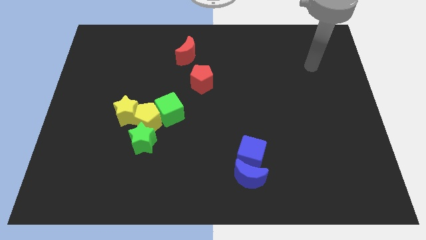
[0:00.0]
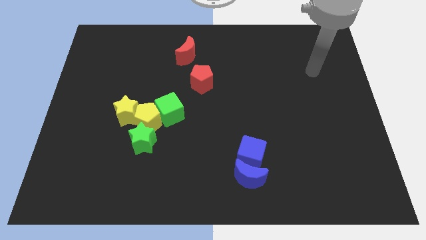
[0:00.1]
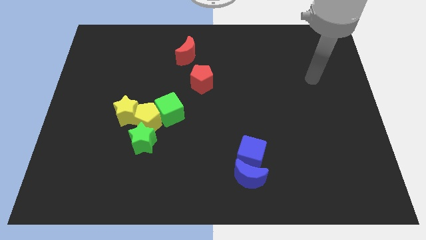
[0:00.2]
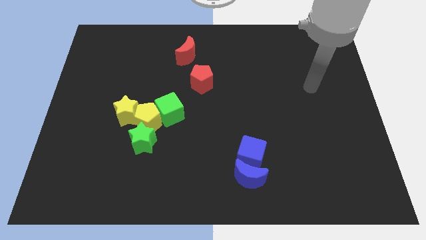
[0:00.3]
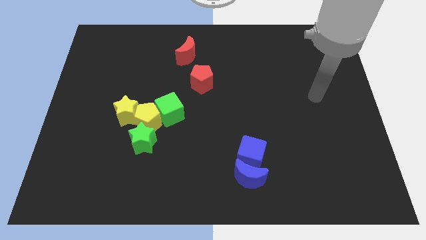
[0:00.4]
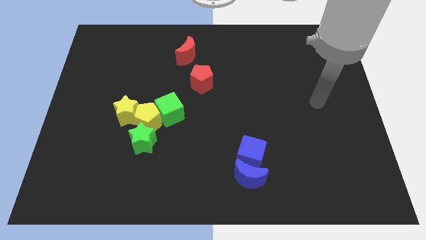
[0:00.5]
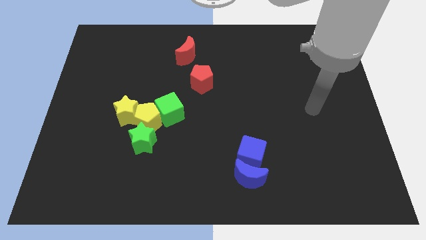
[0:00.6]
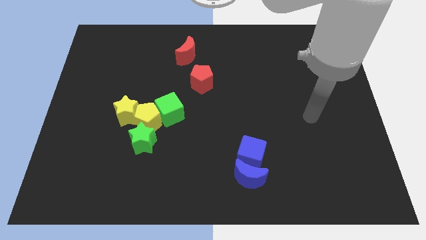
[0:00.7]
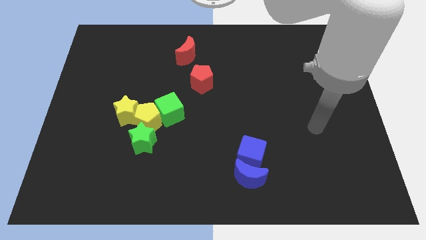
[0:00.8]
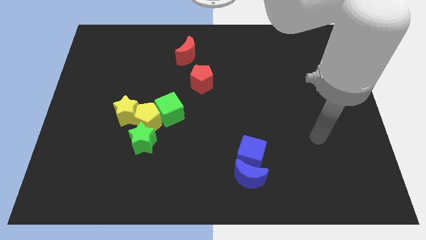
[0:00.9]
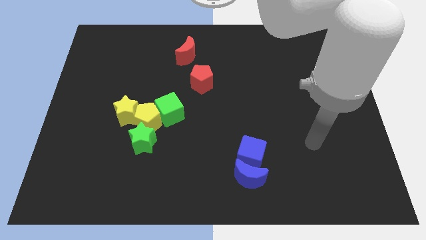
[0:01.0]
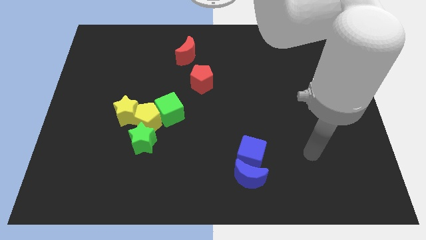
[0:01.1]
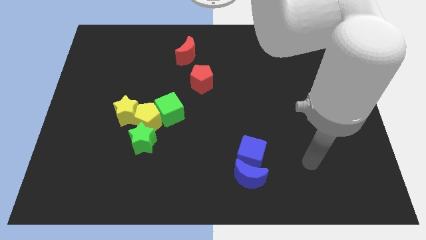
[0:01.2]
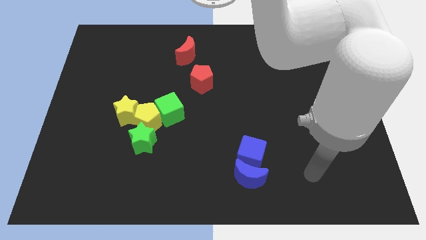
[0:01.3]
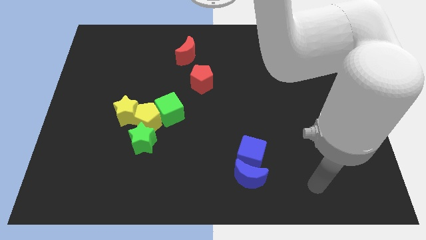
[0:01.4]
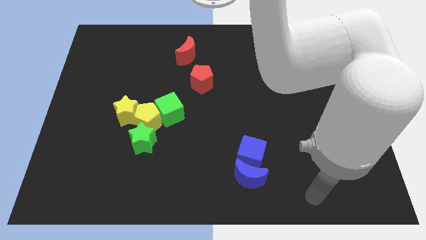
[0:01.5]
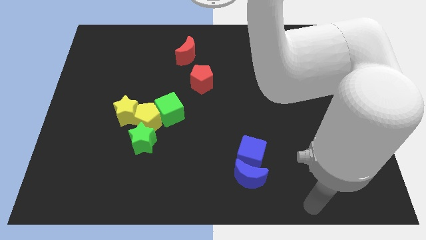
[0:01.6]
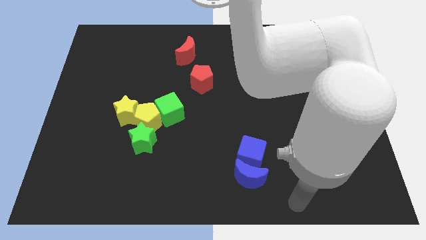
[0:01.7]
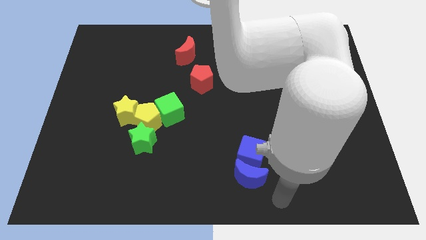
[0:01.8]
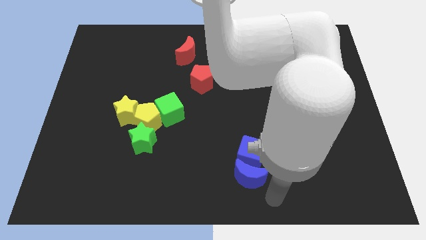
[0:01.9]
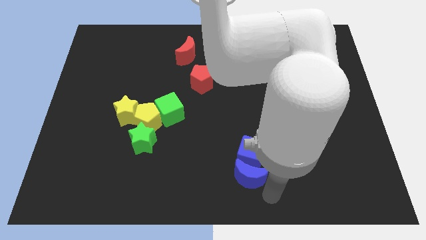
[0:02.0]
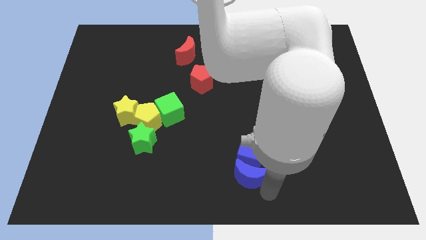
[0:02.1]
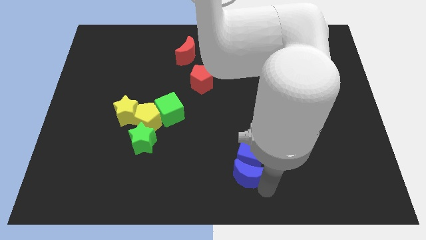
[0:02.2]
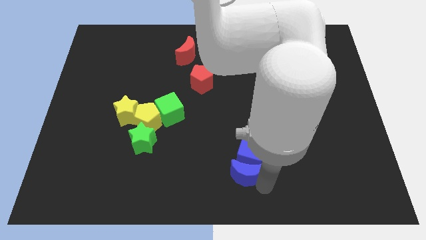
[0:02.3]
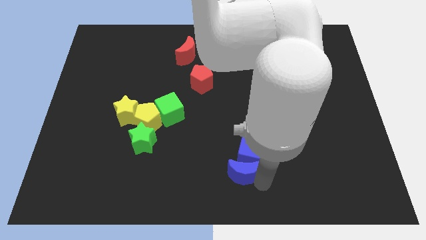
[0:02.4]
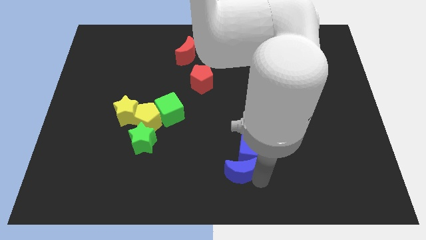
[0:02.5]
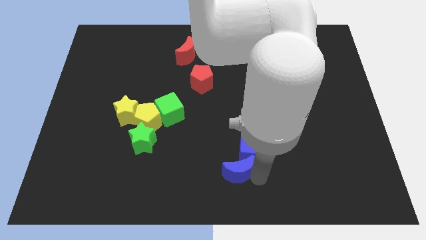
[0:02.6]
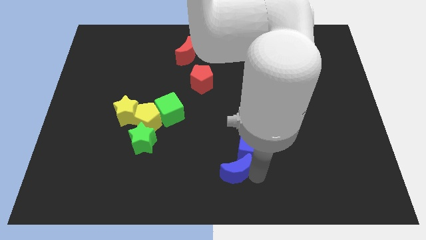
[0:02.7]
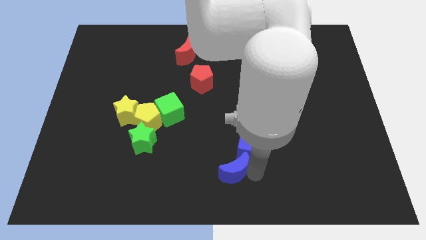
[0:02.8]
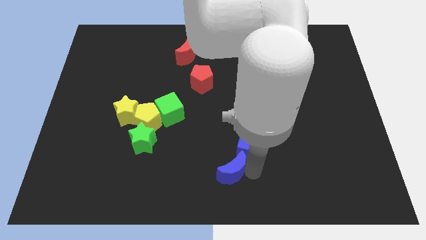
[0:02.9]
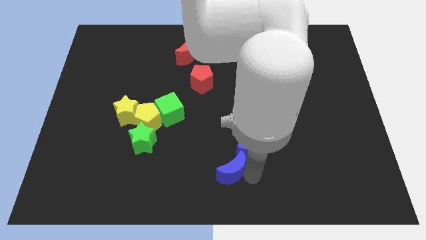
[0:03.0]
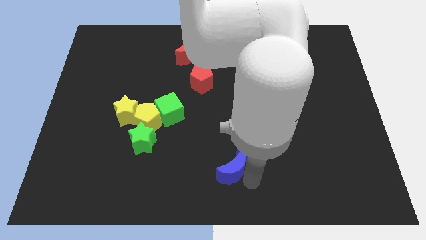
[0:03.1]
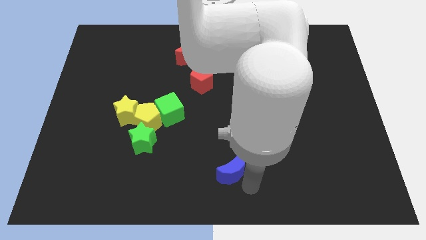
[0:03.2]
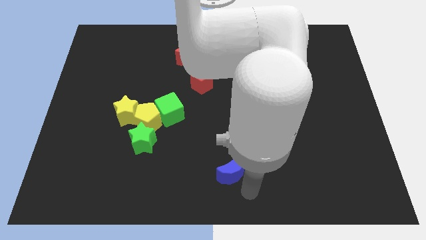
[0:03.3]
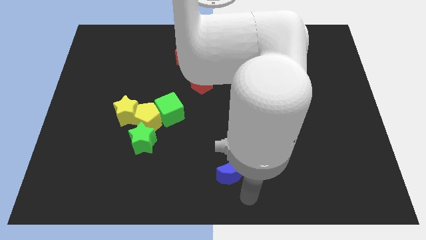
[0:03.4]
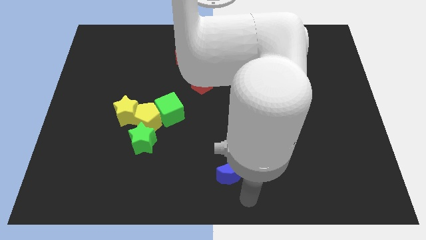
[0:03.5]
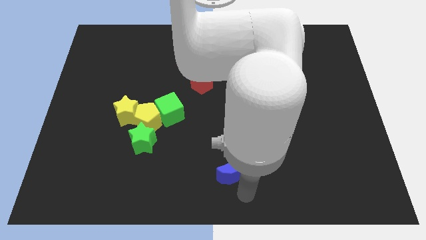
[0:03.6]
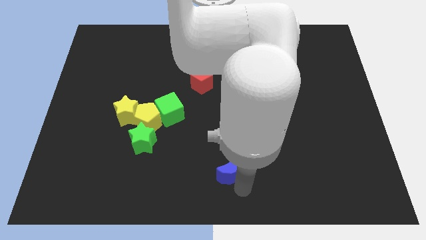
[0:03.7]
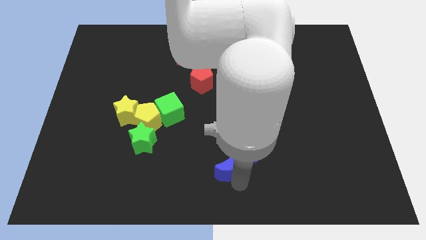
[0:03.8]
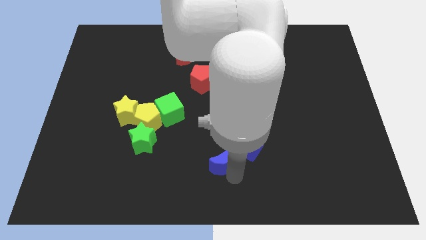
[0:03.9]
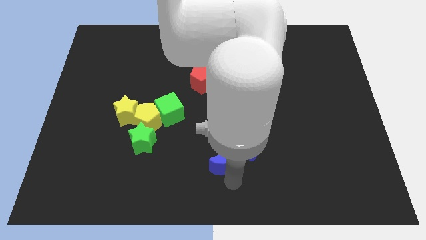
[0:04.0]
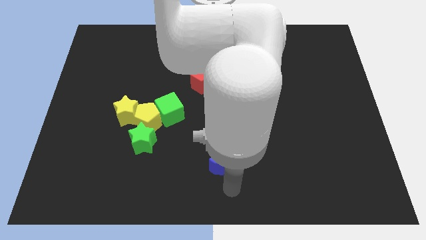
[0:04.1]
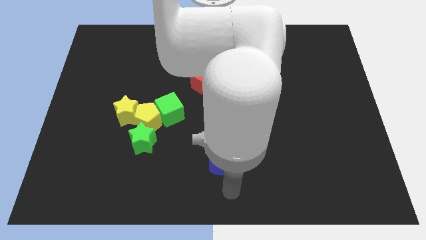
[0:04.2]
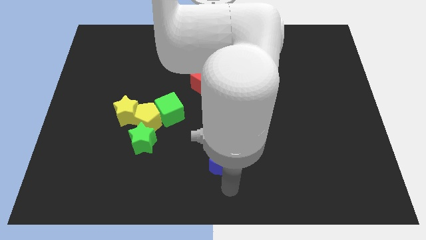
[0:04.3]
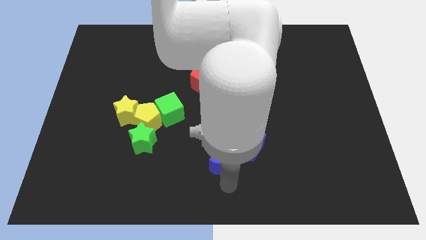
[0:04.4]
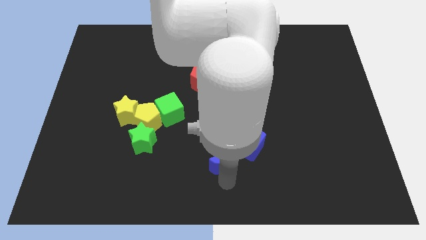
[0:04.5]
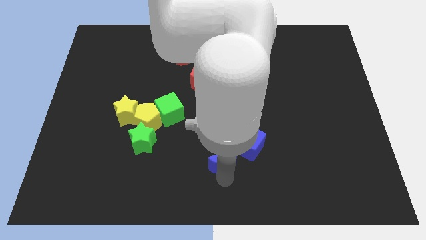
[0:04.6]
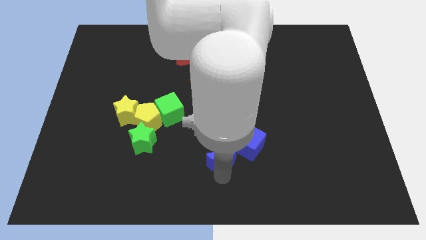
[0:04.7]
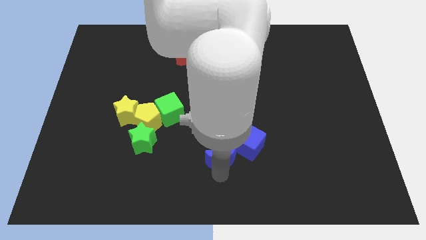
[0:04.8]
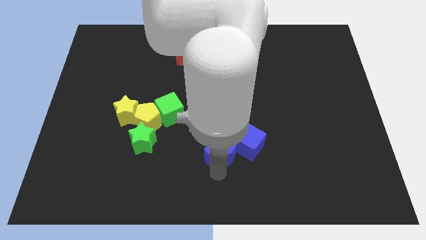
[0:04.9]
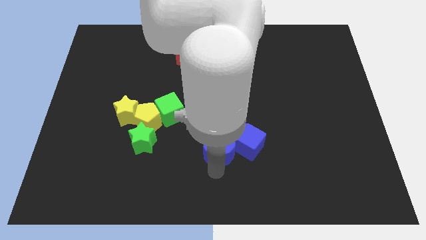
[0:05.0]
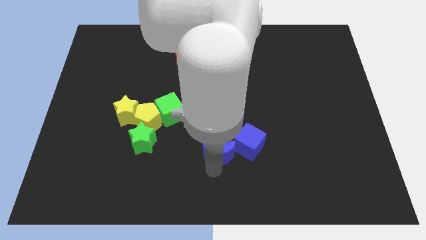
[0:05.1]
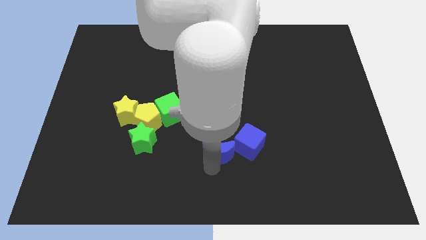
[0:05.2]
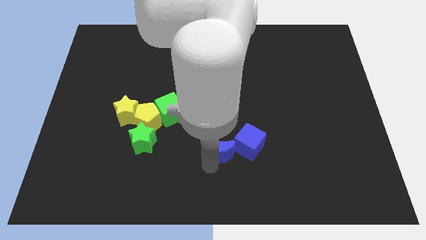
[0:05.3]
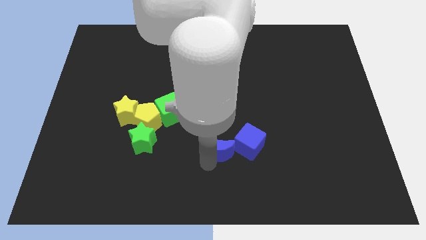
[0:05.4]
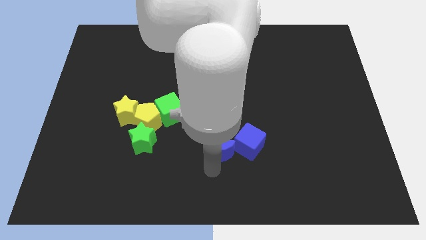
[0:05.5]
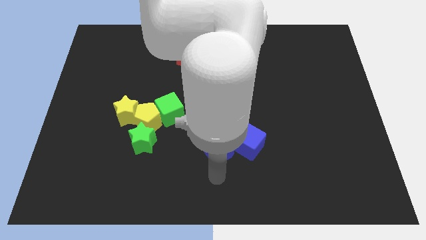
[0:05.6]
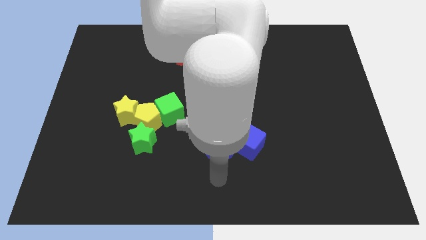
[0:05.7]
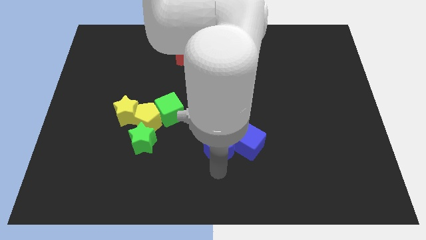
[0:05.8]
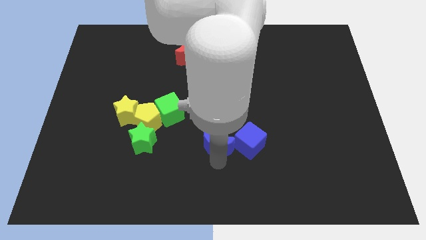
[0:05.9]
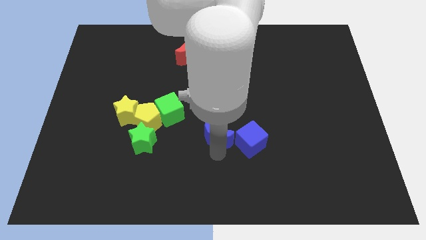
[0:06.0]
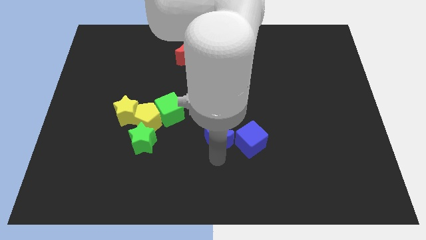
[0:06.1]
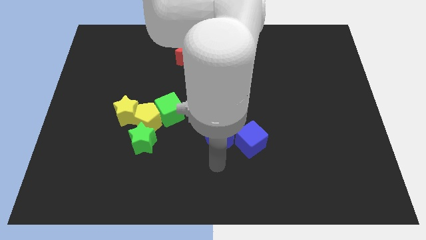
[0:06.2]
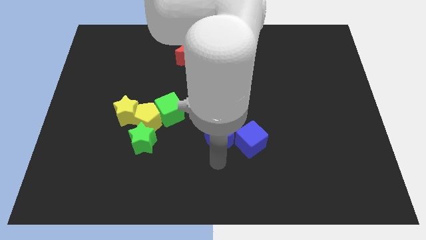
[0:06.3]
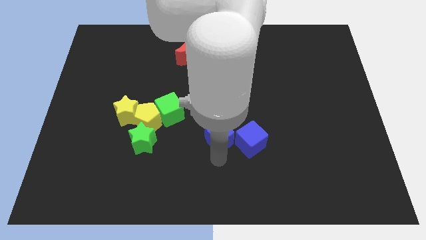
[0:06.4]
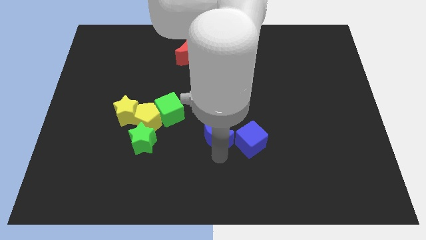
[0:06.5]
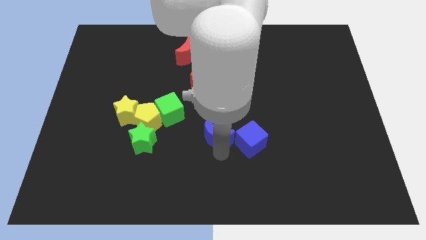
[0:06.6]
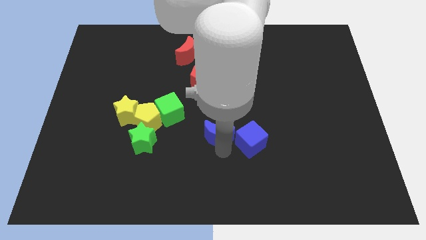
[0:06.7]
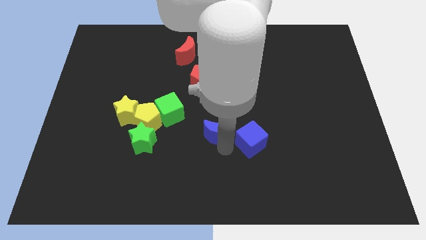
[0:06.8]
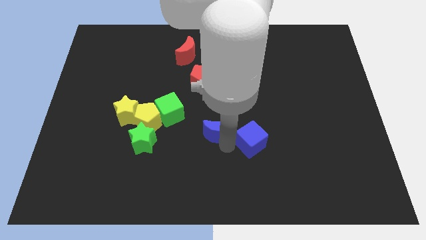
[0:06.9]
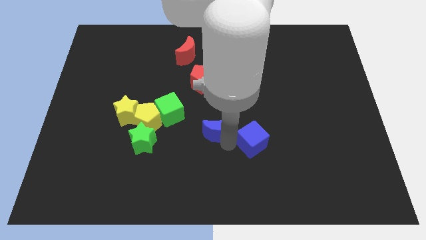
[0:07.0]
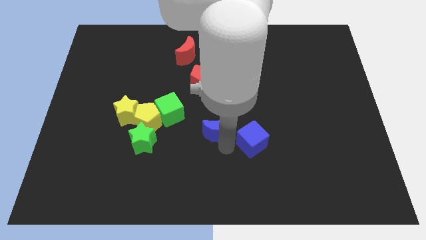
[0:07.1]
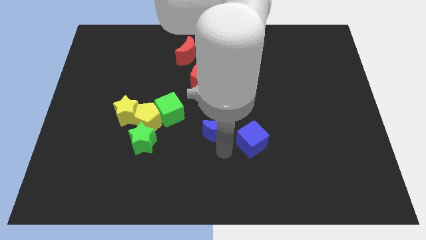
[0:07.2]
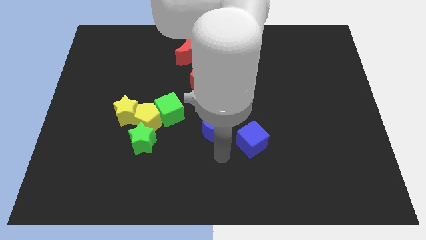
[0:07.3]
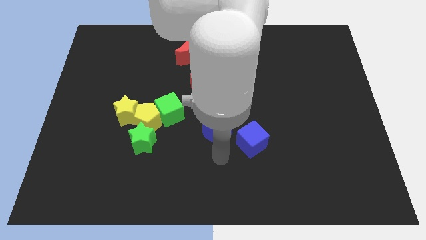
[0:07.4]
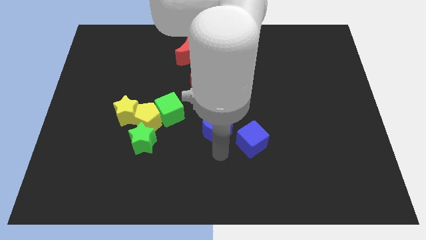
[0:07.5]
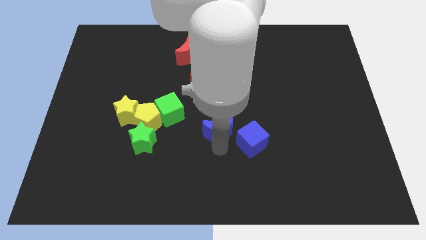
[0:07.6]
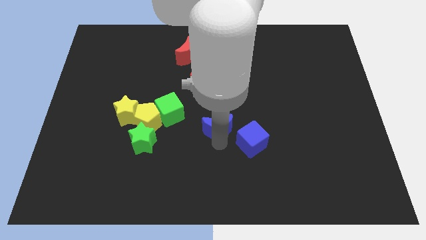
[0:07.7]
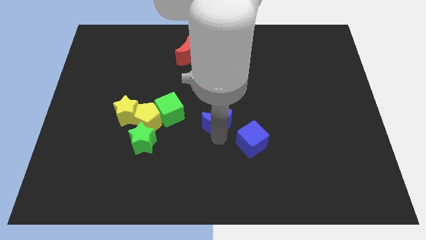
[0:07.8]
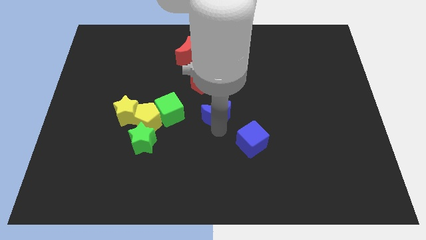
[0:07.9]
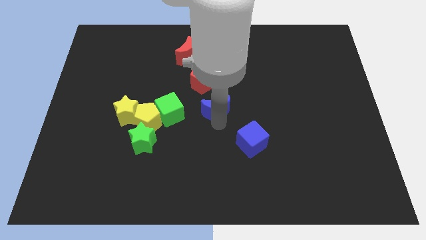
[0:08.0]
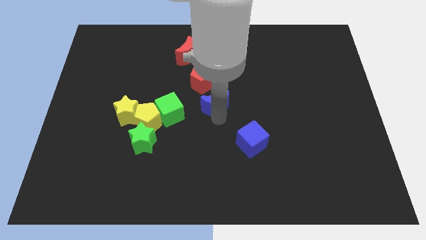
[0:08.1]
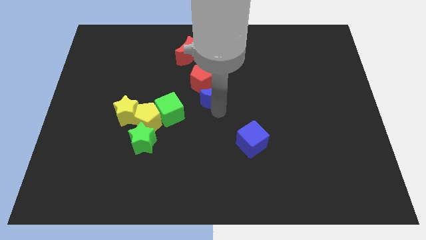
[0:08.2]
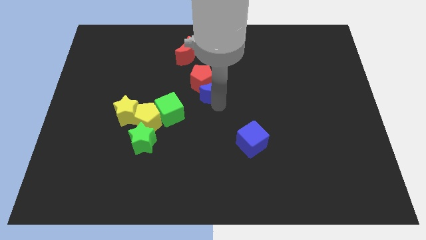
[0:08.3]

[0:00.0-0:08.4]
slide the blue moon to the red pentagon
